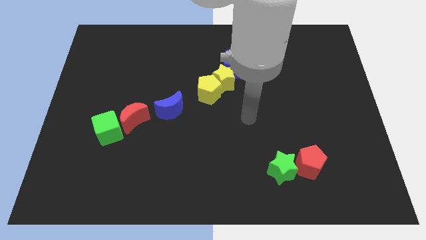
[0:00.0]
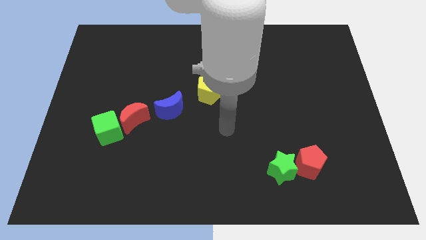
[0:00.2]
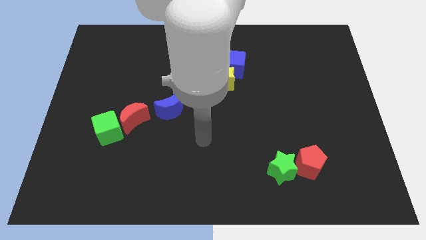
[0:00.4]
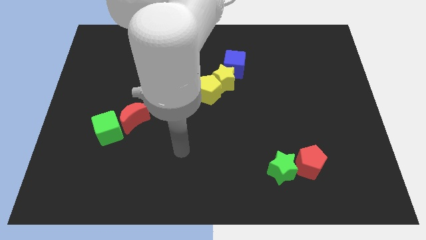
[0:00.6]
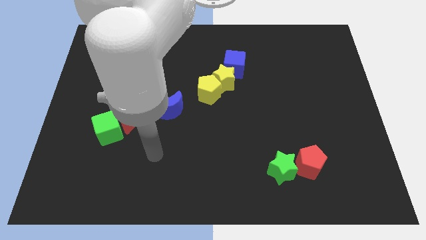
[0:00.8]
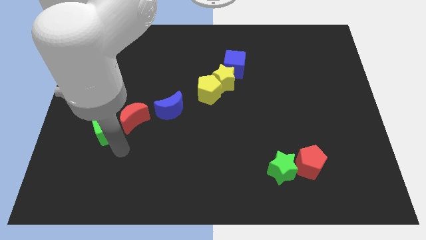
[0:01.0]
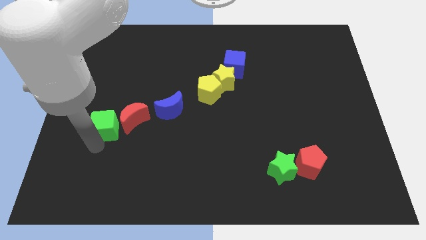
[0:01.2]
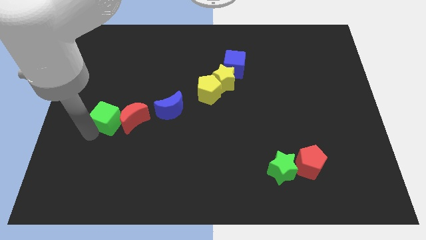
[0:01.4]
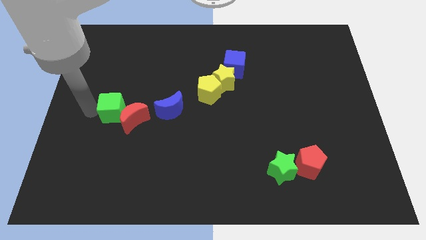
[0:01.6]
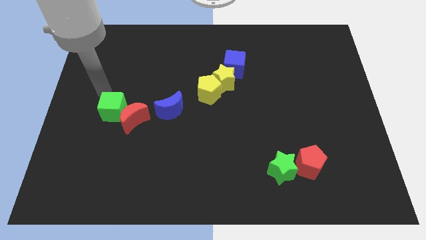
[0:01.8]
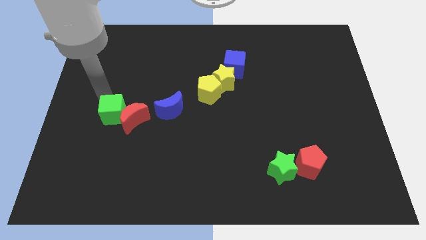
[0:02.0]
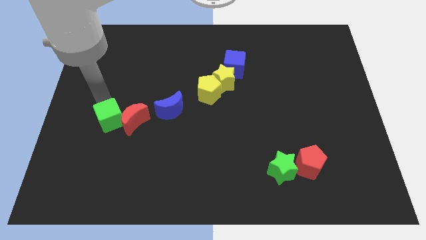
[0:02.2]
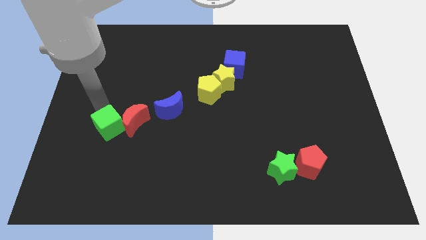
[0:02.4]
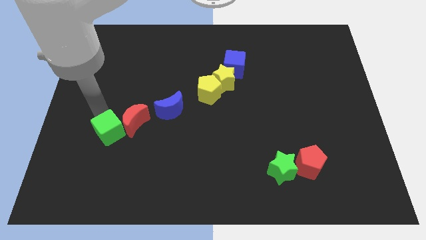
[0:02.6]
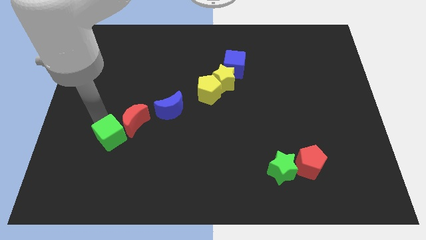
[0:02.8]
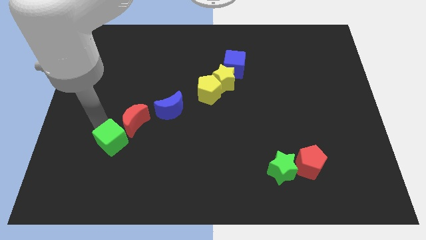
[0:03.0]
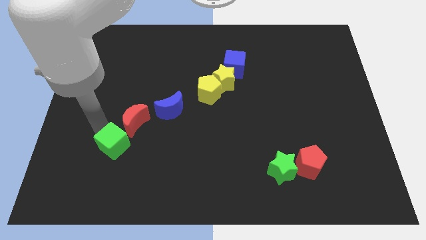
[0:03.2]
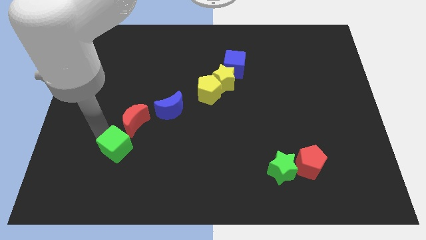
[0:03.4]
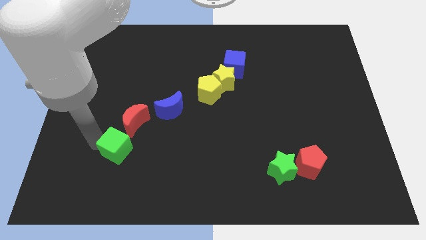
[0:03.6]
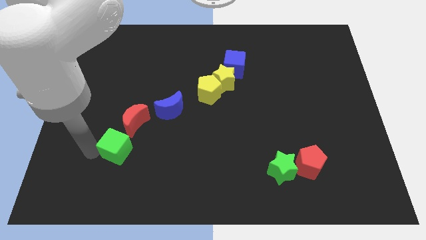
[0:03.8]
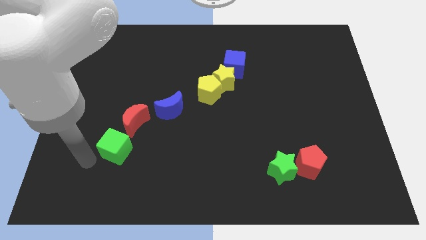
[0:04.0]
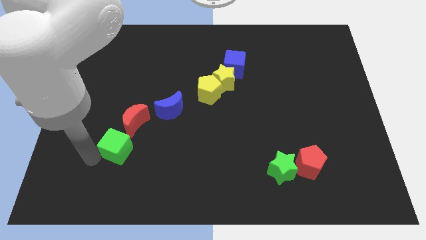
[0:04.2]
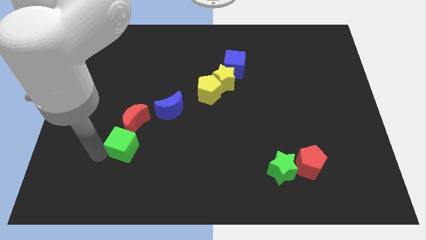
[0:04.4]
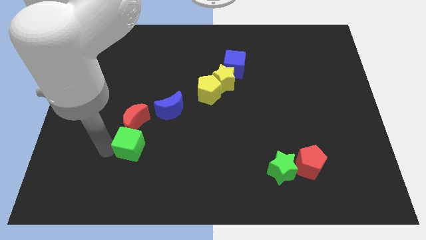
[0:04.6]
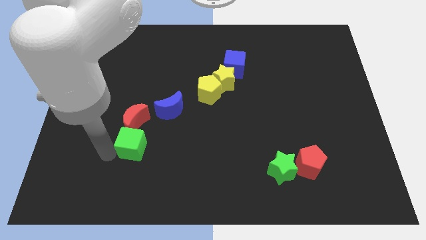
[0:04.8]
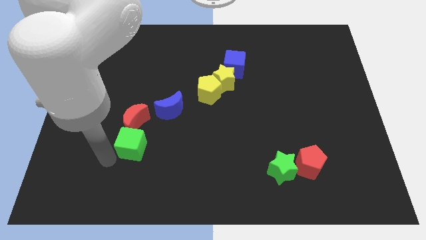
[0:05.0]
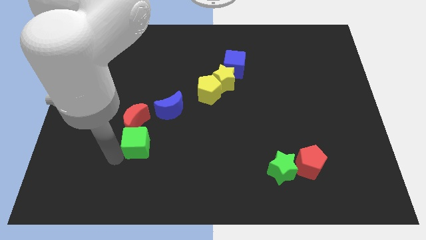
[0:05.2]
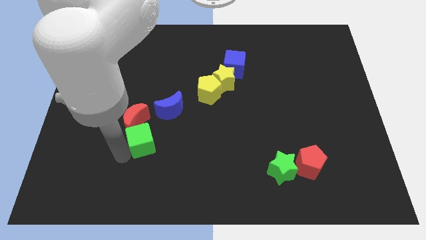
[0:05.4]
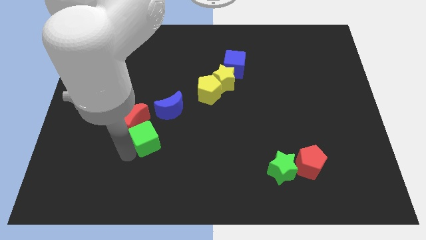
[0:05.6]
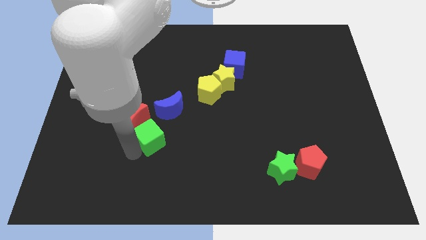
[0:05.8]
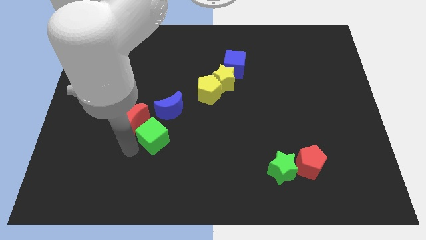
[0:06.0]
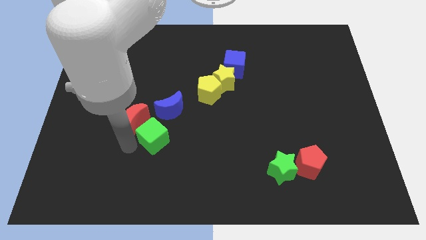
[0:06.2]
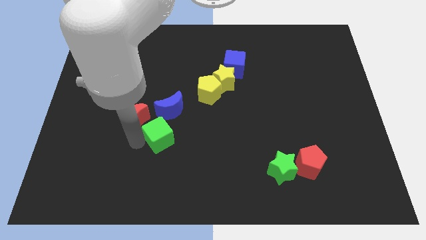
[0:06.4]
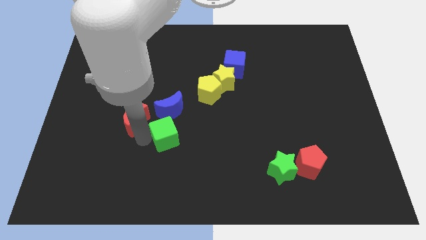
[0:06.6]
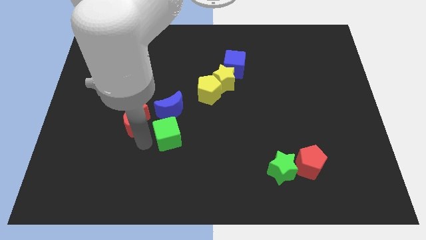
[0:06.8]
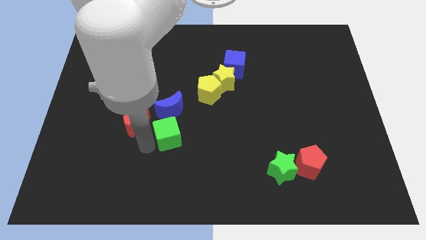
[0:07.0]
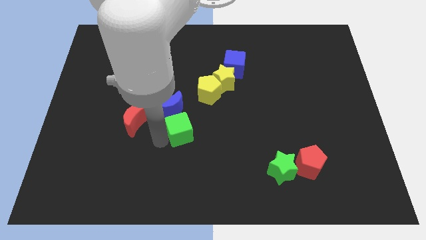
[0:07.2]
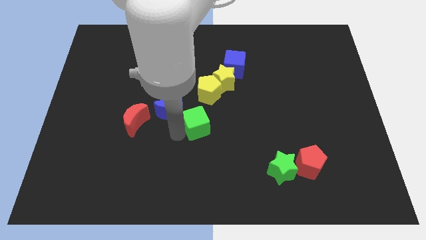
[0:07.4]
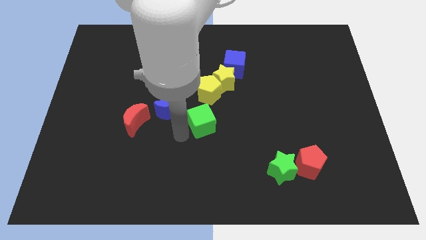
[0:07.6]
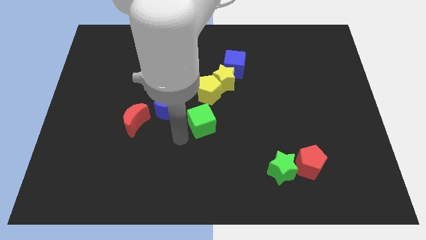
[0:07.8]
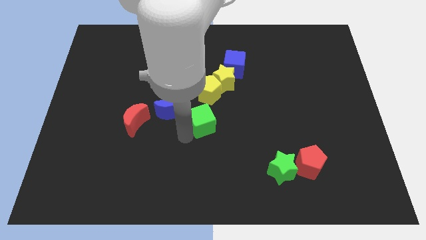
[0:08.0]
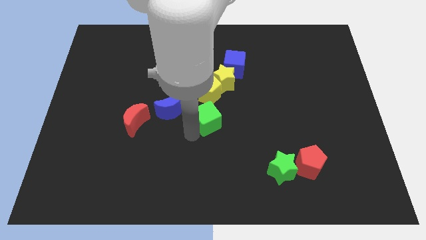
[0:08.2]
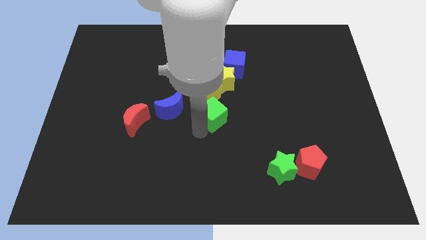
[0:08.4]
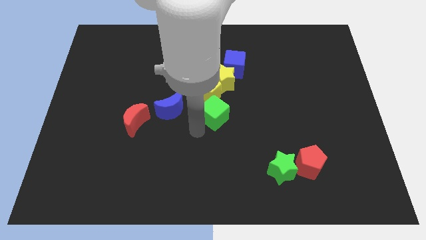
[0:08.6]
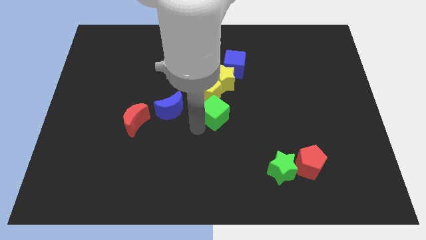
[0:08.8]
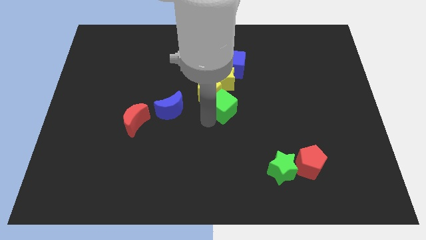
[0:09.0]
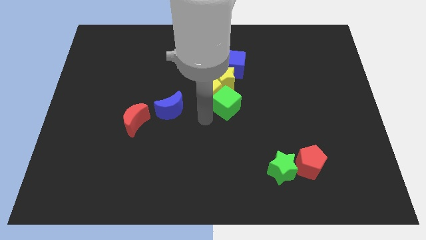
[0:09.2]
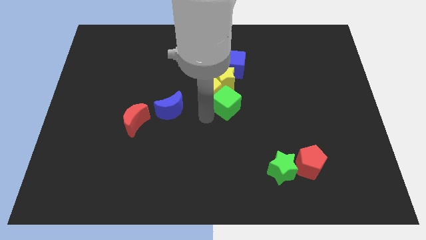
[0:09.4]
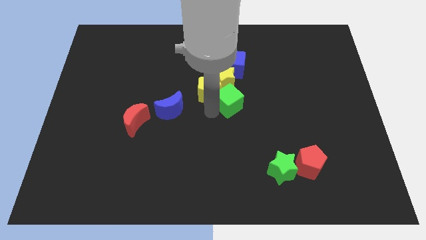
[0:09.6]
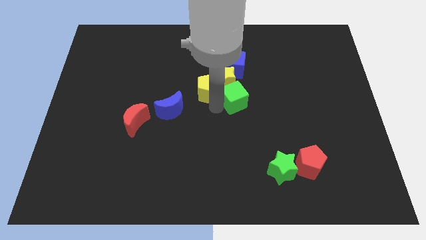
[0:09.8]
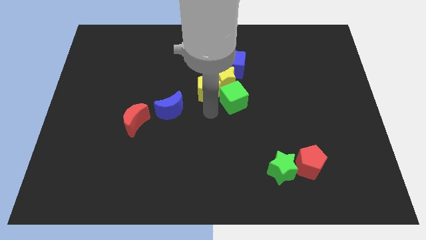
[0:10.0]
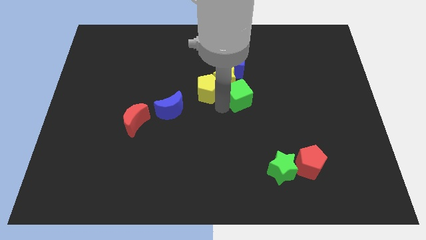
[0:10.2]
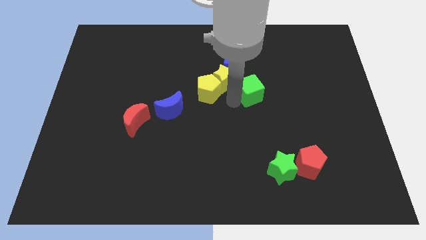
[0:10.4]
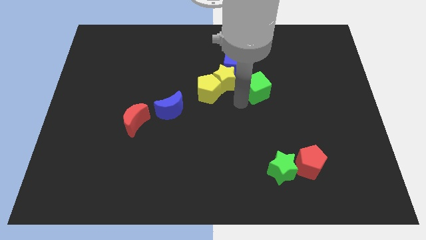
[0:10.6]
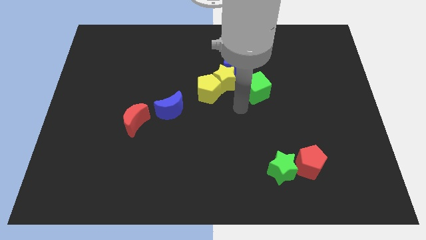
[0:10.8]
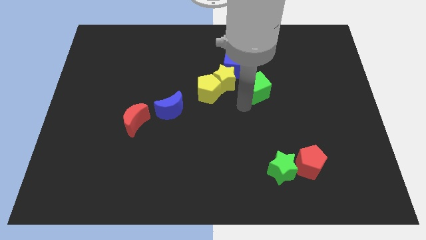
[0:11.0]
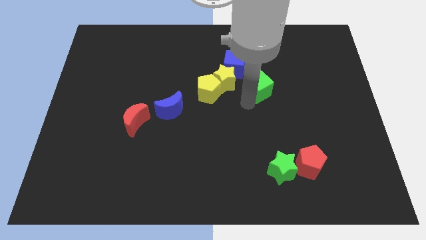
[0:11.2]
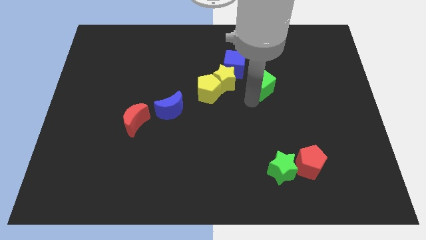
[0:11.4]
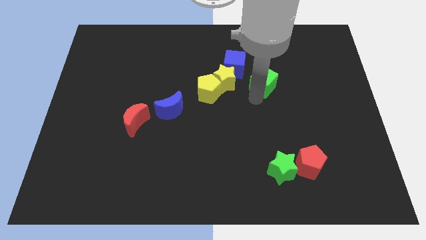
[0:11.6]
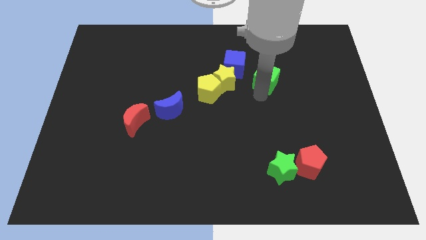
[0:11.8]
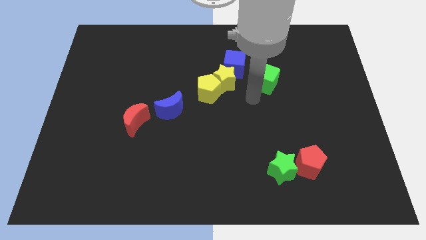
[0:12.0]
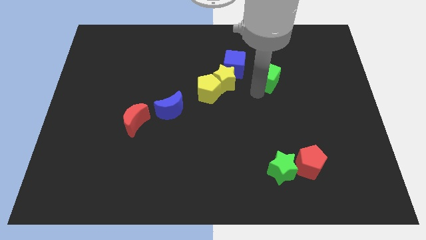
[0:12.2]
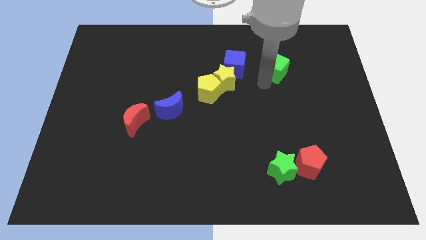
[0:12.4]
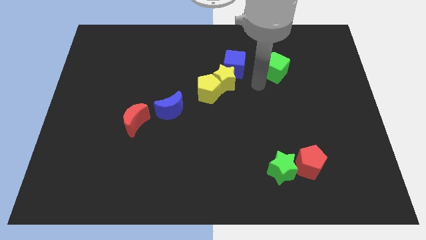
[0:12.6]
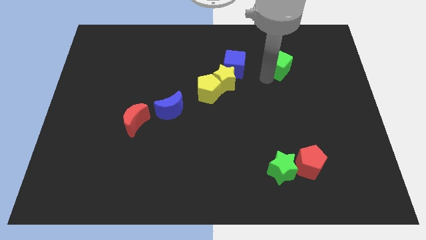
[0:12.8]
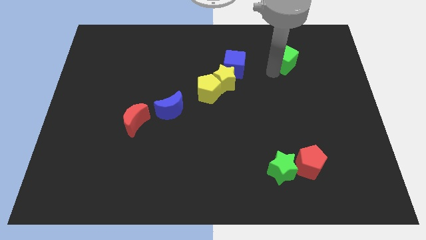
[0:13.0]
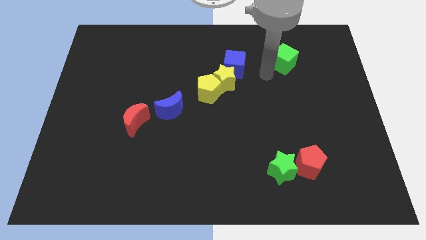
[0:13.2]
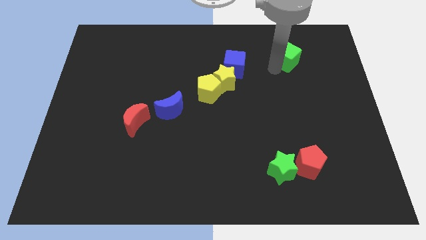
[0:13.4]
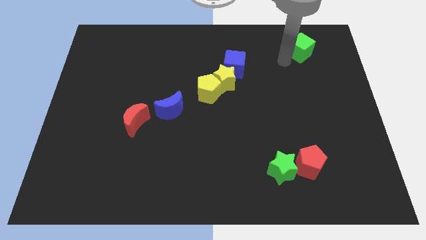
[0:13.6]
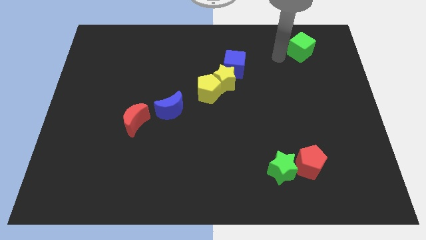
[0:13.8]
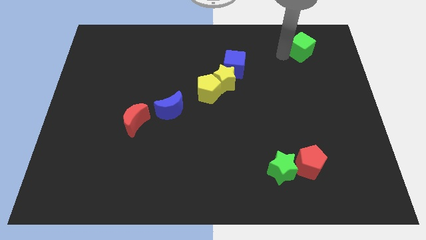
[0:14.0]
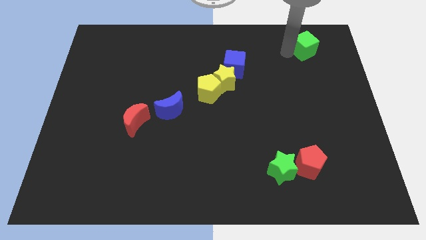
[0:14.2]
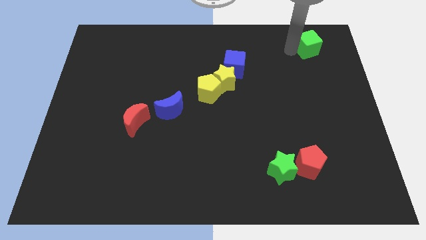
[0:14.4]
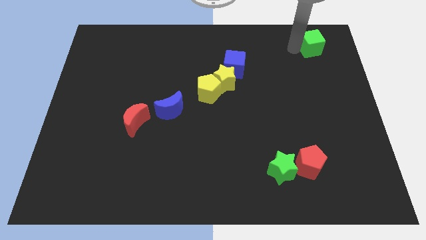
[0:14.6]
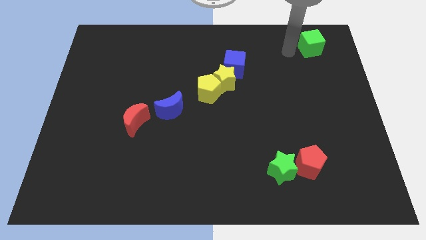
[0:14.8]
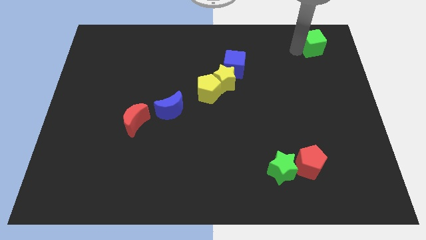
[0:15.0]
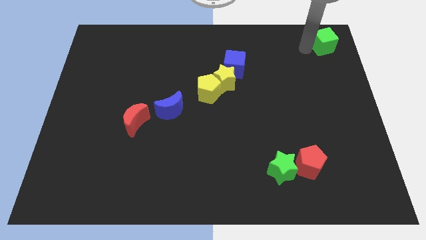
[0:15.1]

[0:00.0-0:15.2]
put the green cube to the upper right corner
